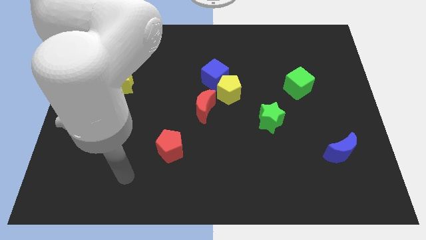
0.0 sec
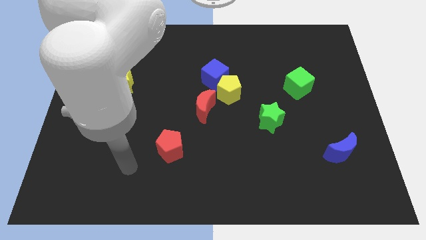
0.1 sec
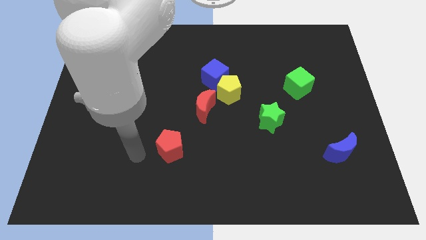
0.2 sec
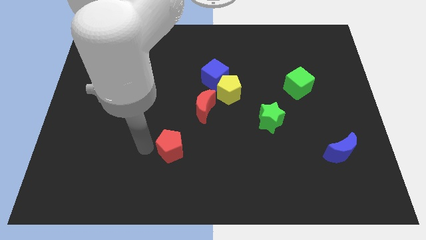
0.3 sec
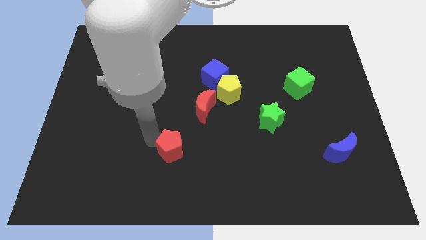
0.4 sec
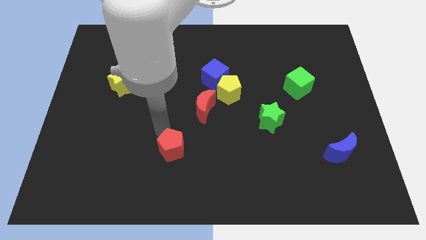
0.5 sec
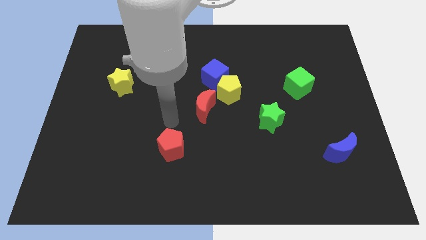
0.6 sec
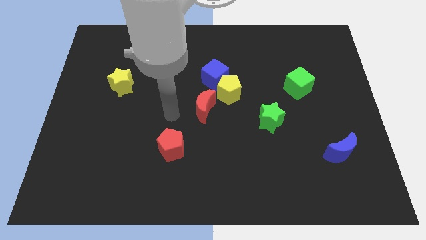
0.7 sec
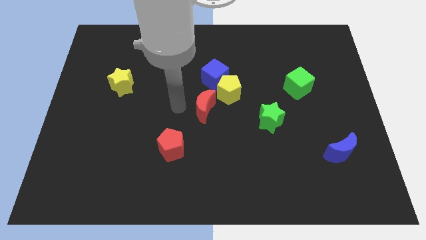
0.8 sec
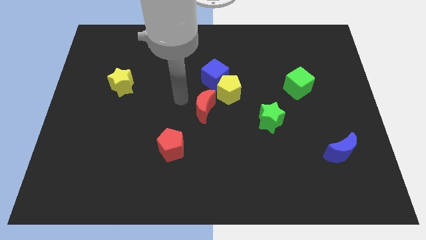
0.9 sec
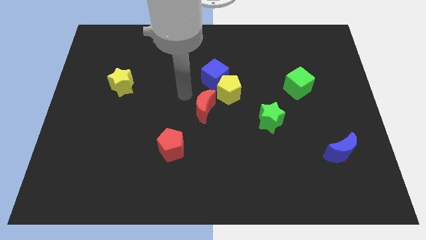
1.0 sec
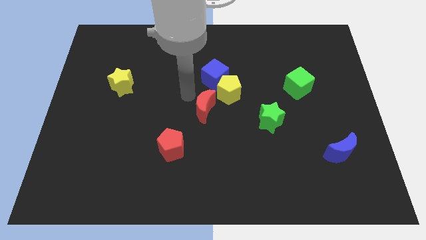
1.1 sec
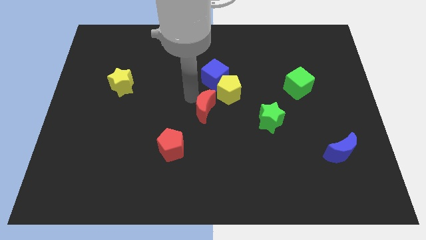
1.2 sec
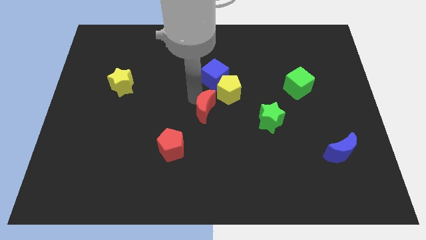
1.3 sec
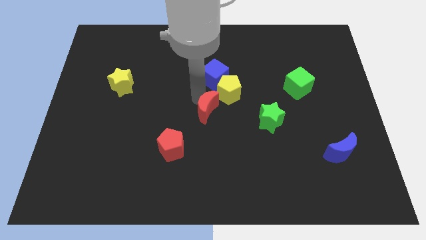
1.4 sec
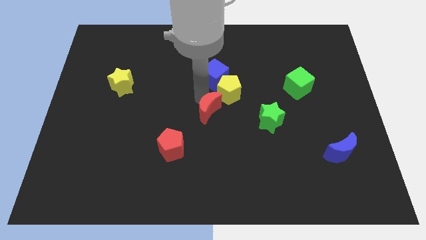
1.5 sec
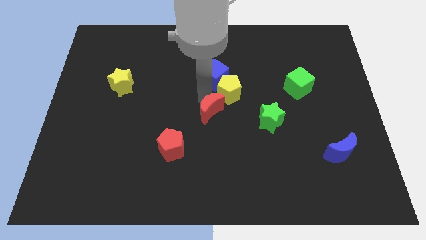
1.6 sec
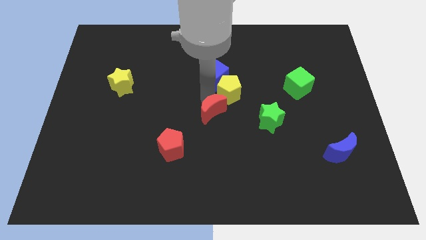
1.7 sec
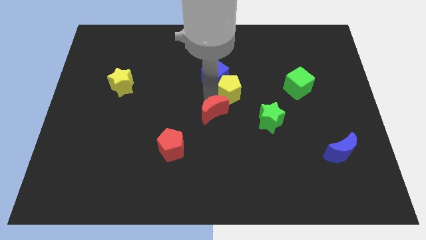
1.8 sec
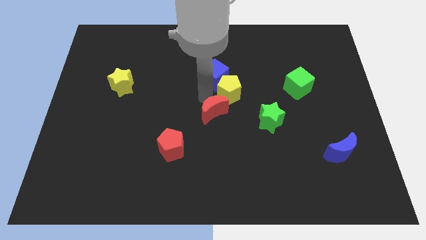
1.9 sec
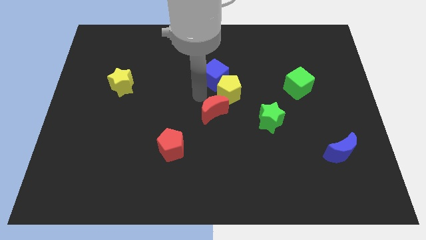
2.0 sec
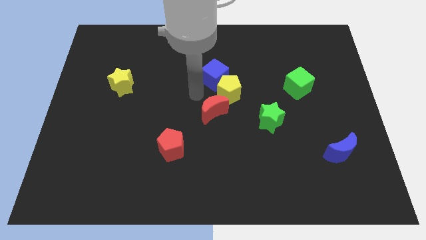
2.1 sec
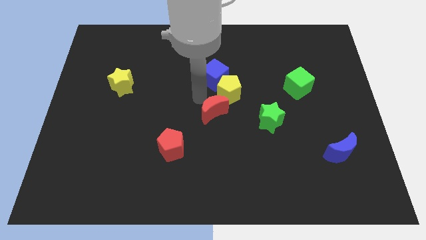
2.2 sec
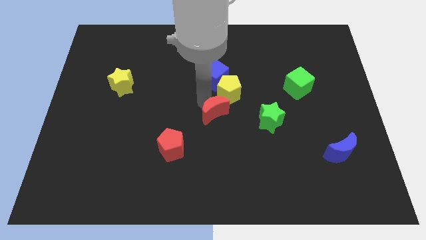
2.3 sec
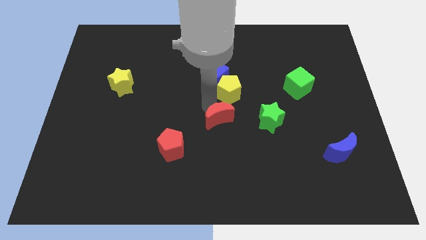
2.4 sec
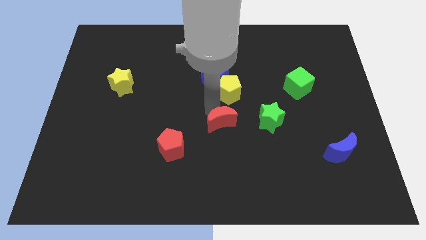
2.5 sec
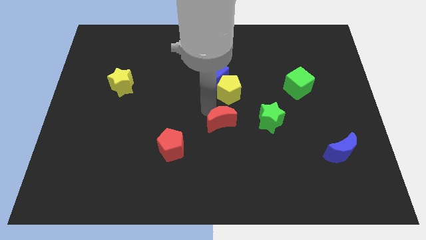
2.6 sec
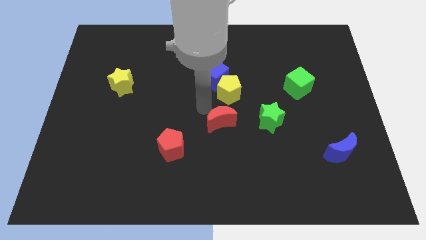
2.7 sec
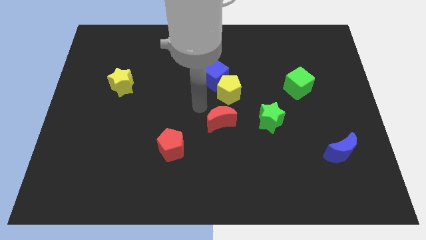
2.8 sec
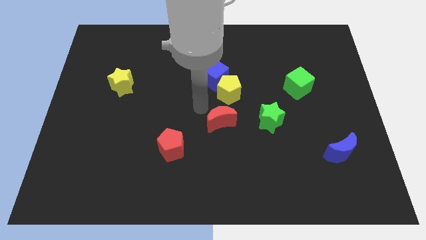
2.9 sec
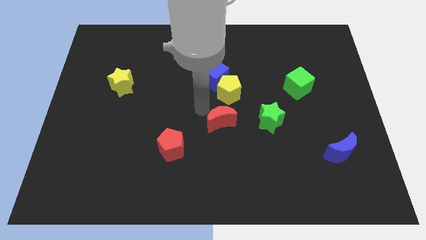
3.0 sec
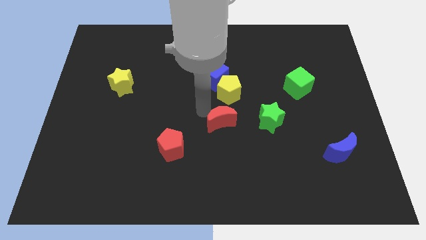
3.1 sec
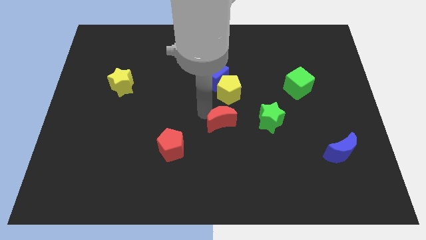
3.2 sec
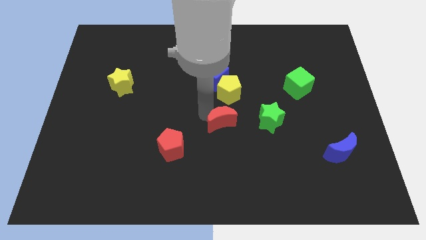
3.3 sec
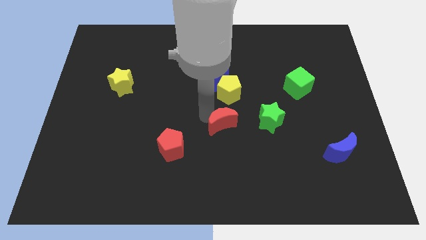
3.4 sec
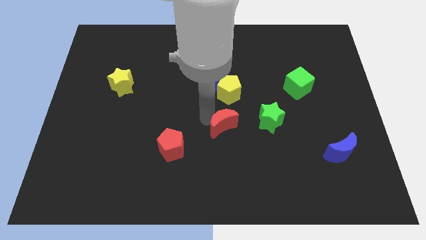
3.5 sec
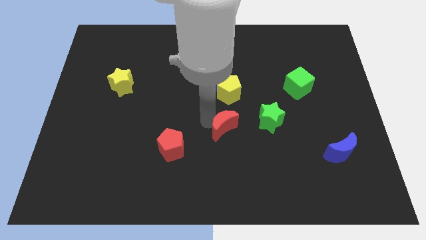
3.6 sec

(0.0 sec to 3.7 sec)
slightly slide the red moon down and to the right

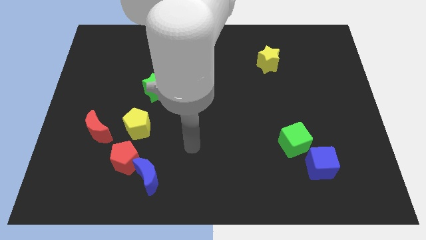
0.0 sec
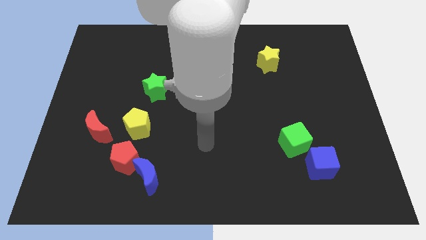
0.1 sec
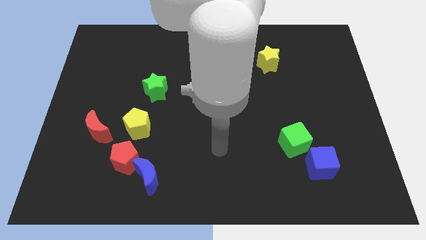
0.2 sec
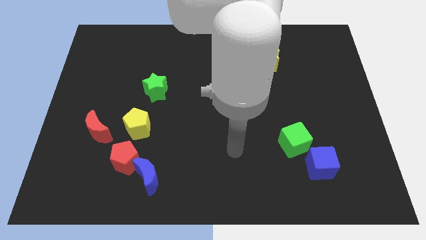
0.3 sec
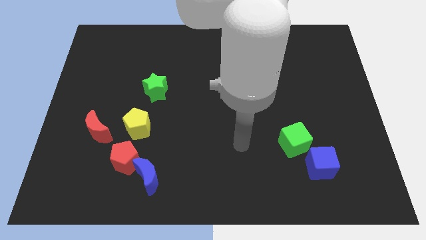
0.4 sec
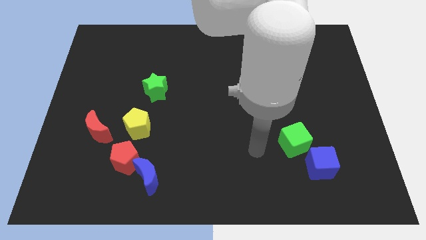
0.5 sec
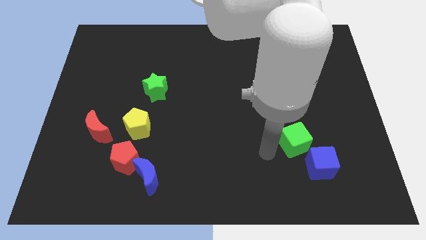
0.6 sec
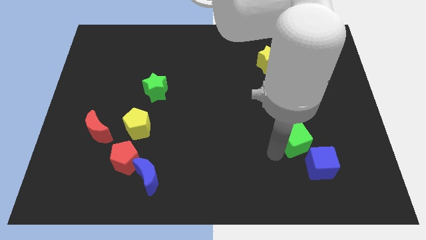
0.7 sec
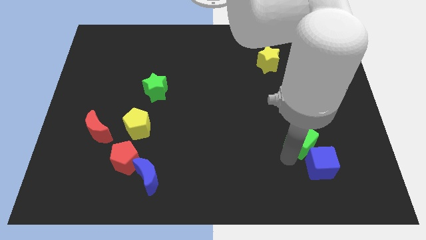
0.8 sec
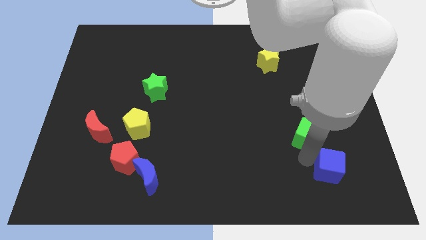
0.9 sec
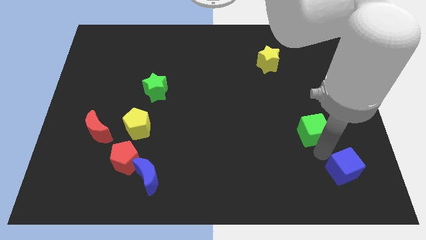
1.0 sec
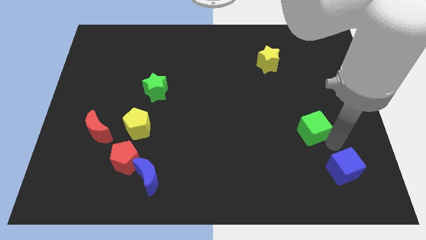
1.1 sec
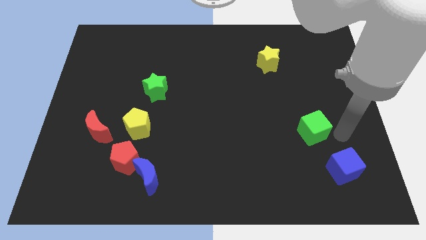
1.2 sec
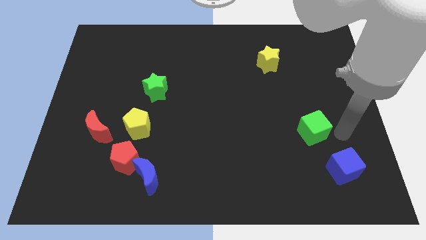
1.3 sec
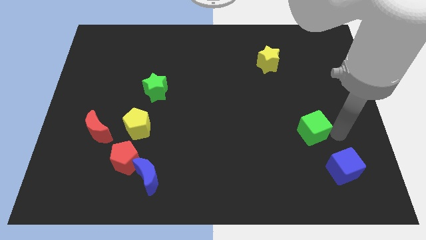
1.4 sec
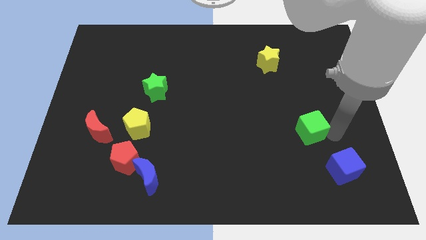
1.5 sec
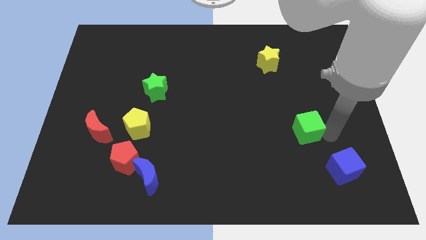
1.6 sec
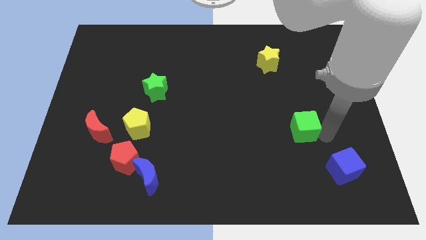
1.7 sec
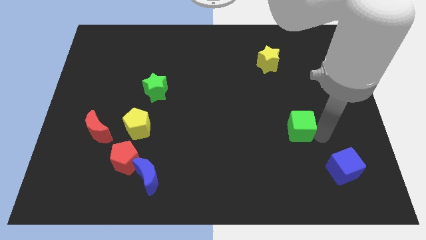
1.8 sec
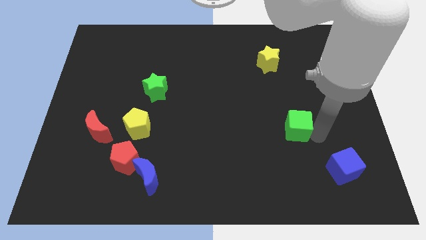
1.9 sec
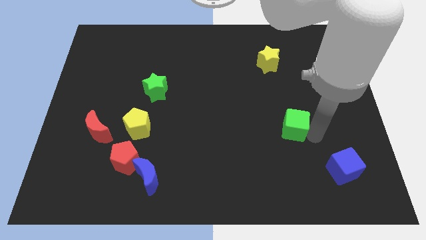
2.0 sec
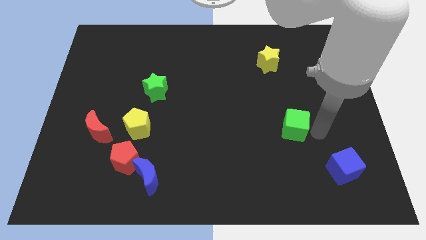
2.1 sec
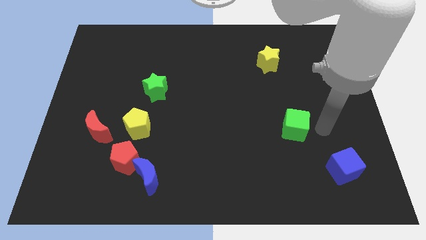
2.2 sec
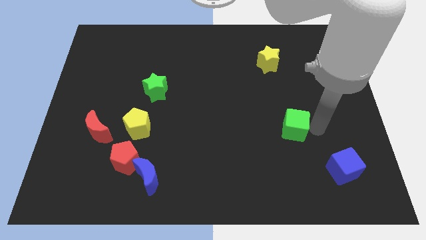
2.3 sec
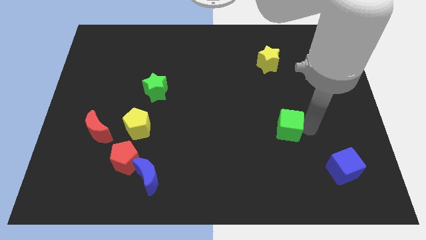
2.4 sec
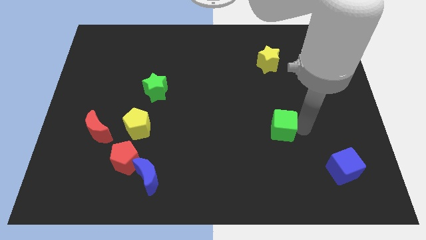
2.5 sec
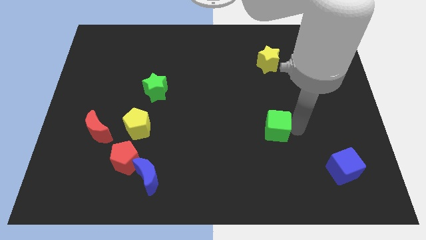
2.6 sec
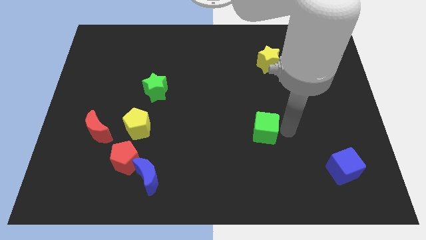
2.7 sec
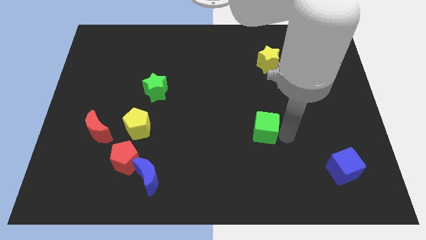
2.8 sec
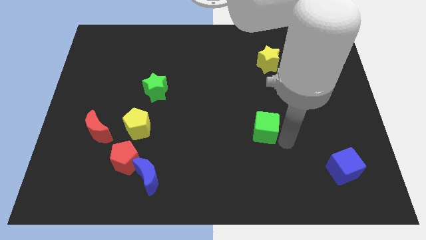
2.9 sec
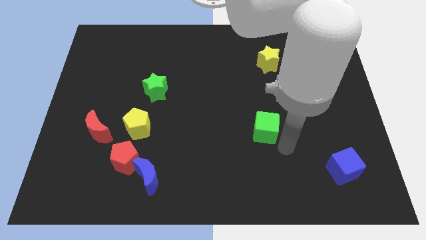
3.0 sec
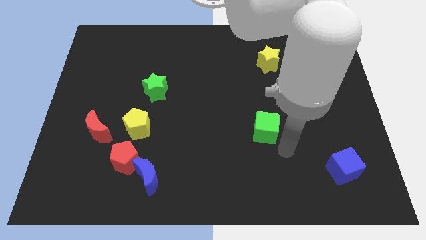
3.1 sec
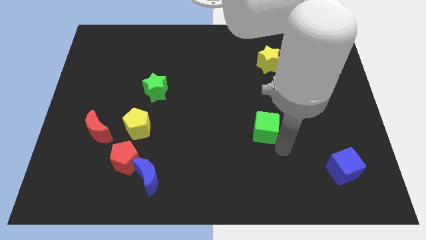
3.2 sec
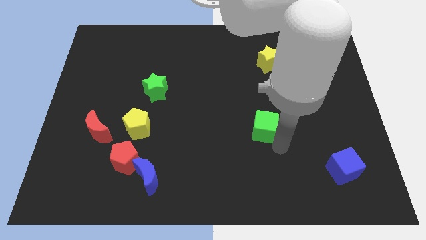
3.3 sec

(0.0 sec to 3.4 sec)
slightly move the green cube upwards and then left

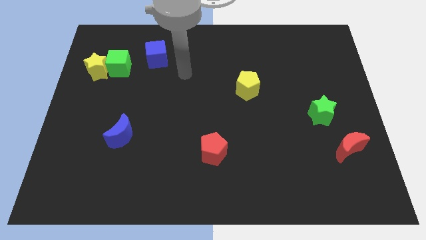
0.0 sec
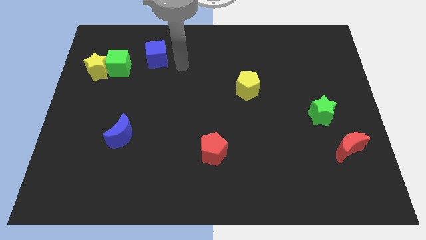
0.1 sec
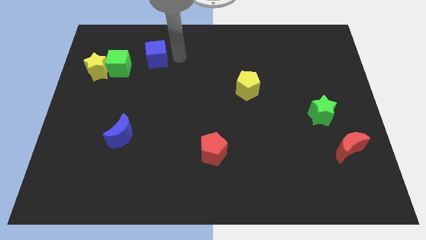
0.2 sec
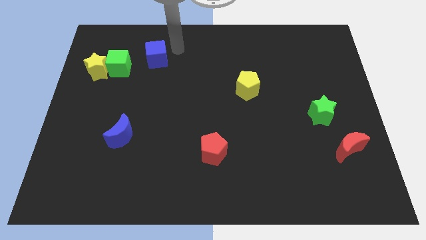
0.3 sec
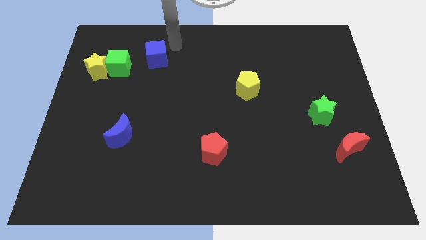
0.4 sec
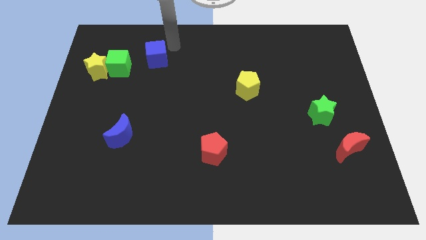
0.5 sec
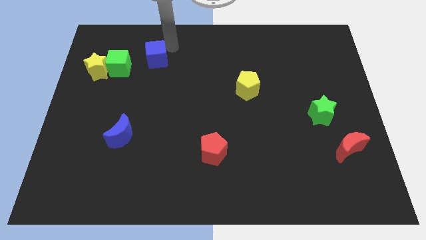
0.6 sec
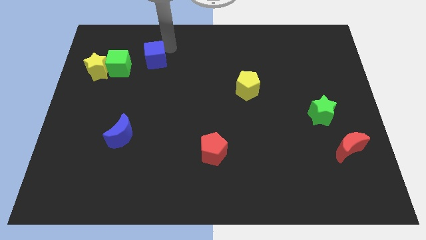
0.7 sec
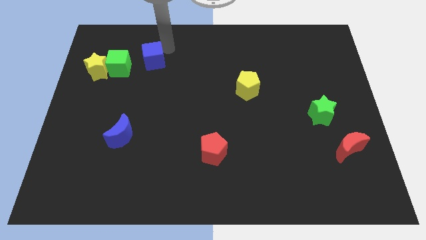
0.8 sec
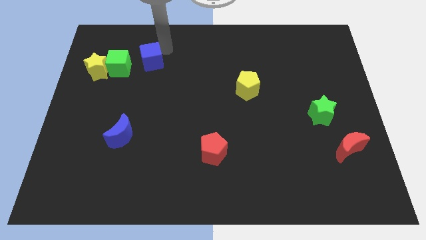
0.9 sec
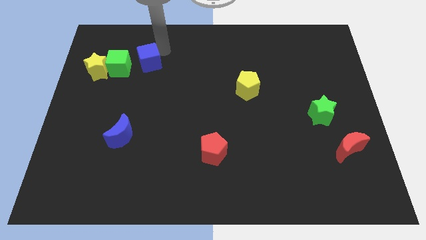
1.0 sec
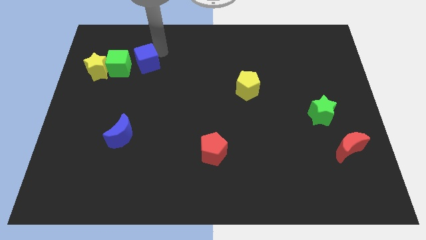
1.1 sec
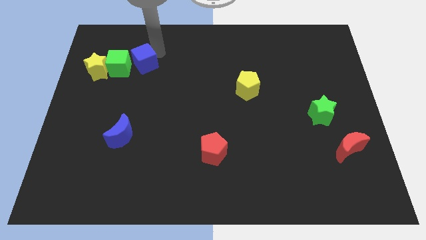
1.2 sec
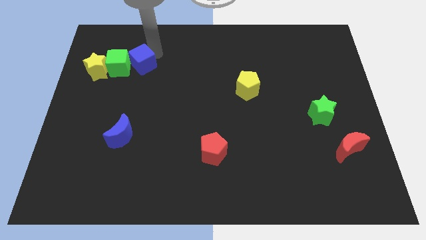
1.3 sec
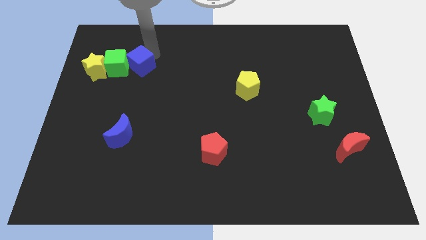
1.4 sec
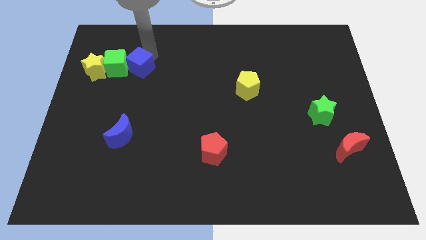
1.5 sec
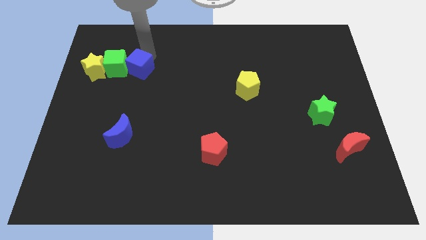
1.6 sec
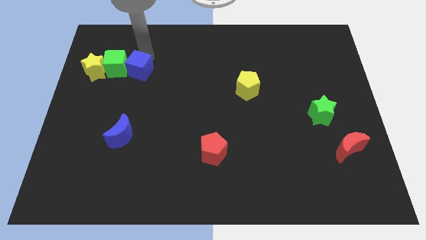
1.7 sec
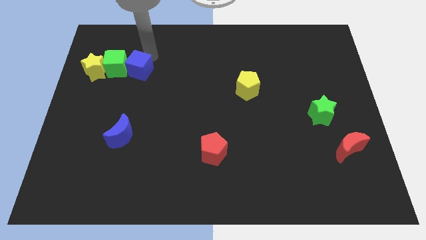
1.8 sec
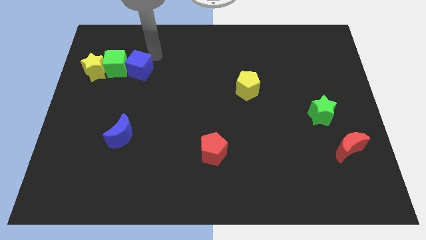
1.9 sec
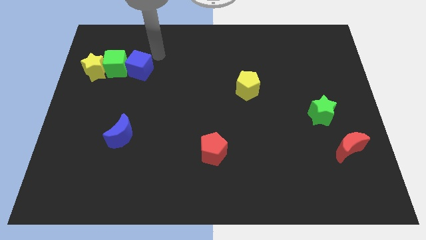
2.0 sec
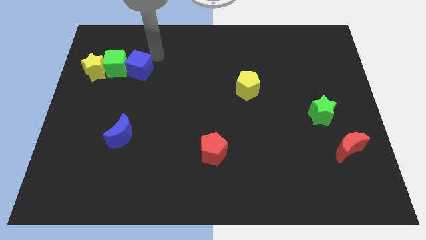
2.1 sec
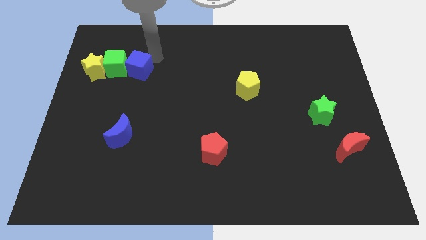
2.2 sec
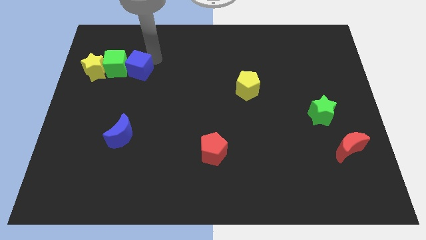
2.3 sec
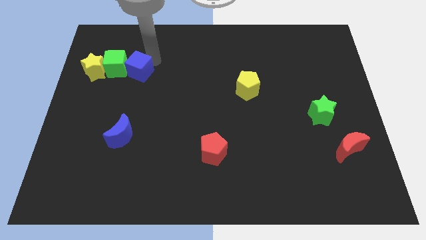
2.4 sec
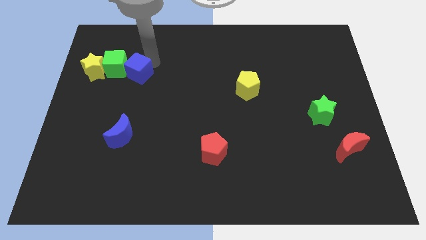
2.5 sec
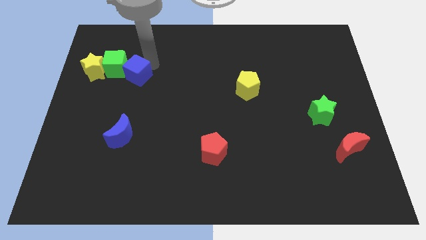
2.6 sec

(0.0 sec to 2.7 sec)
slightly slide the blue cube downwards and left
